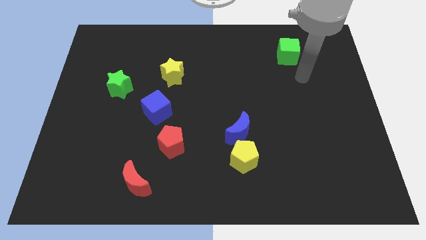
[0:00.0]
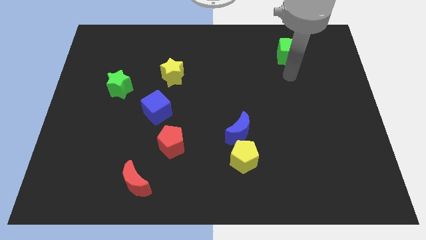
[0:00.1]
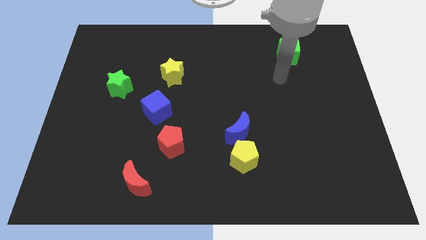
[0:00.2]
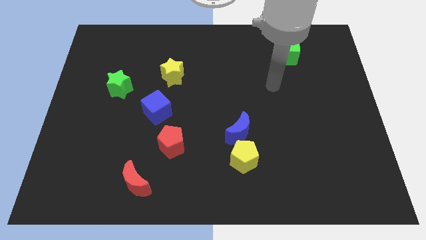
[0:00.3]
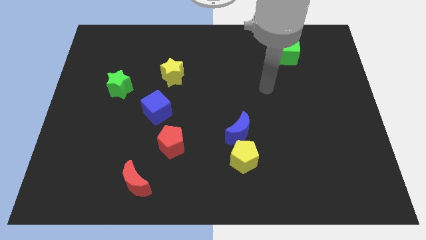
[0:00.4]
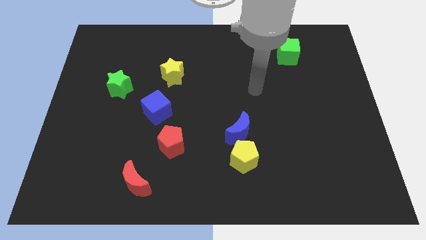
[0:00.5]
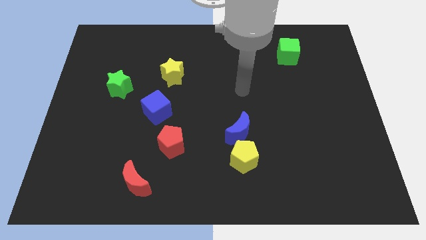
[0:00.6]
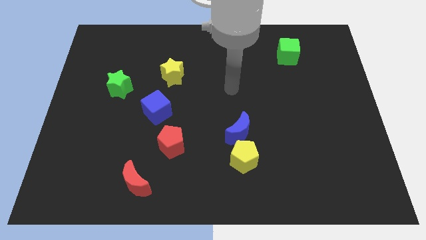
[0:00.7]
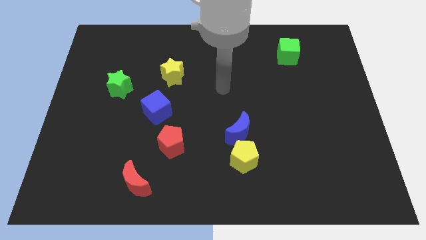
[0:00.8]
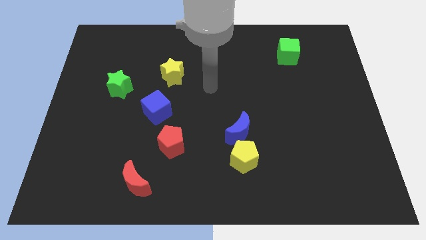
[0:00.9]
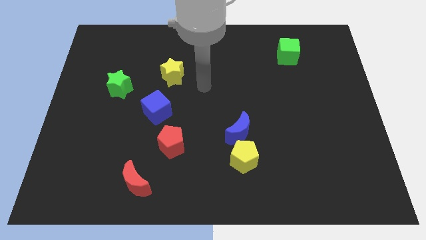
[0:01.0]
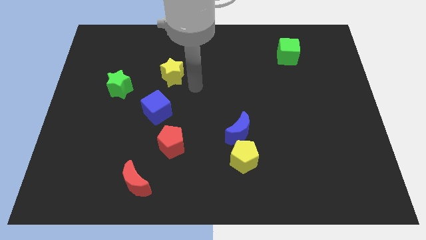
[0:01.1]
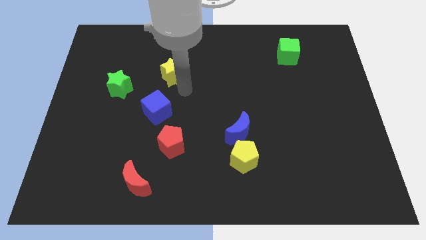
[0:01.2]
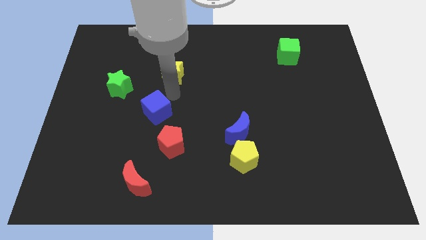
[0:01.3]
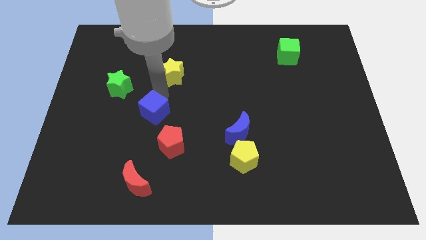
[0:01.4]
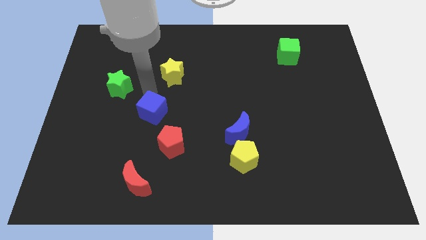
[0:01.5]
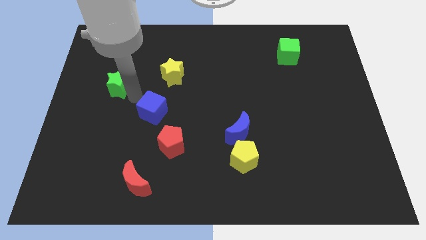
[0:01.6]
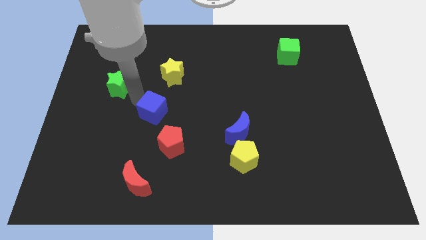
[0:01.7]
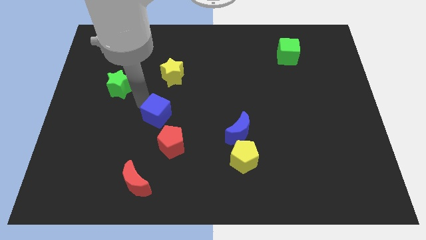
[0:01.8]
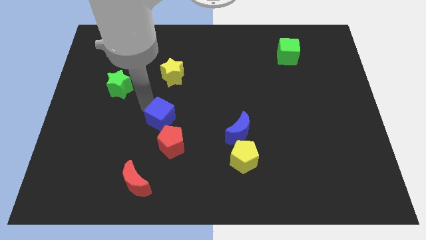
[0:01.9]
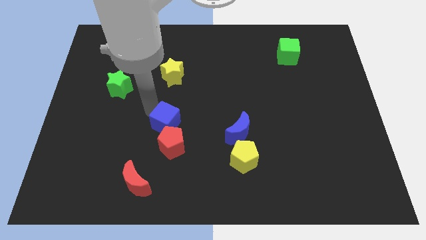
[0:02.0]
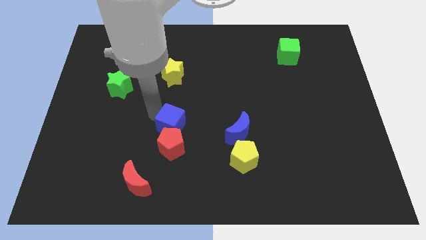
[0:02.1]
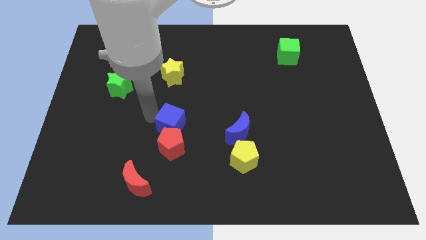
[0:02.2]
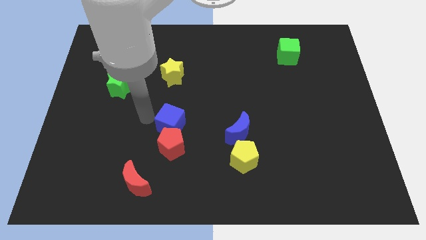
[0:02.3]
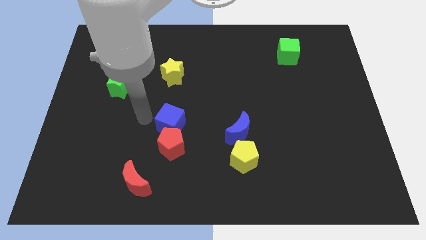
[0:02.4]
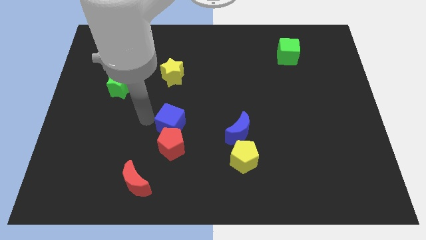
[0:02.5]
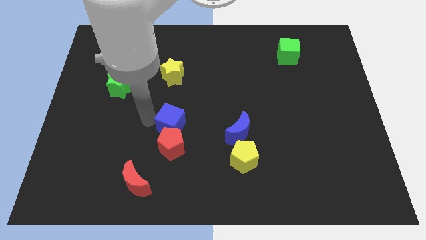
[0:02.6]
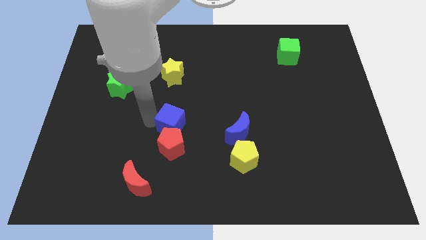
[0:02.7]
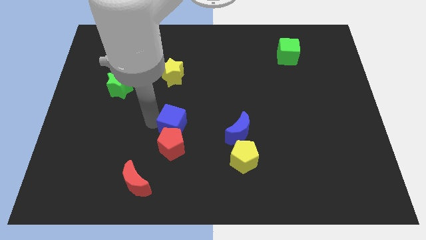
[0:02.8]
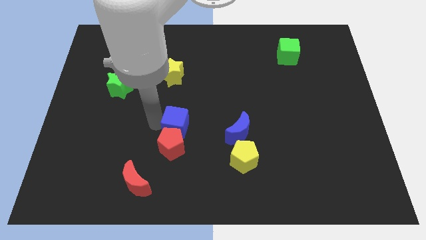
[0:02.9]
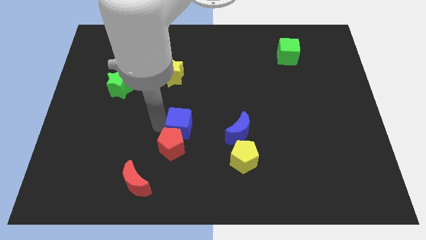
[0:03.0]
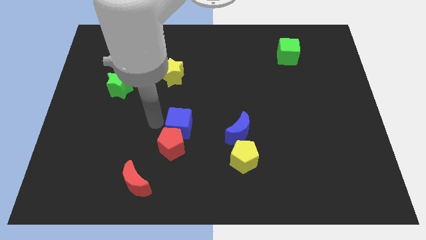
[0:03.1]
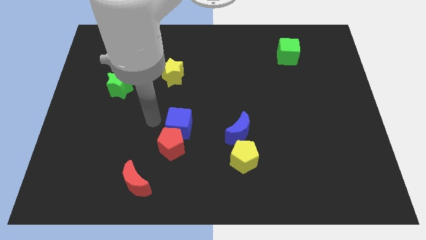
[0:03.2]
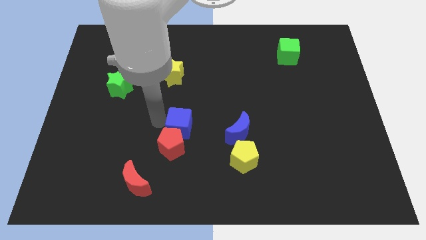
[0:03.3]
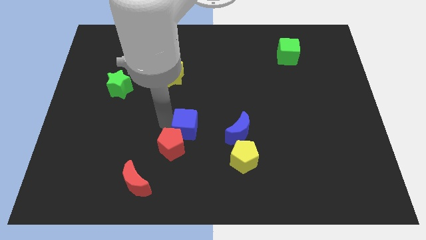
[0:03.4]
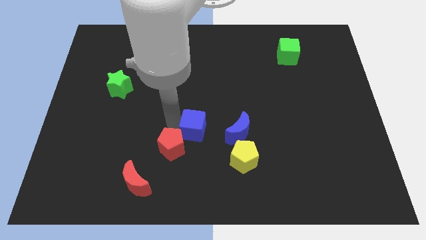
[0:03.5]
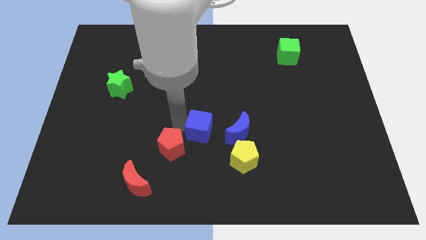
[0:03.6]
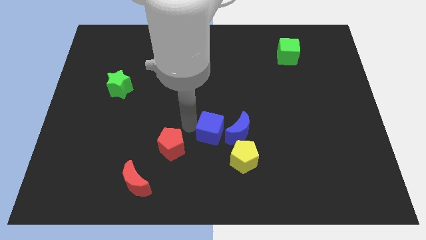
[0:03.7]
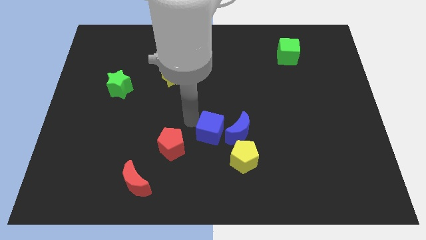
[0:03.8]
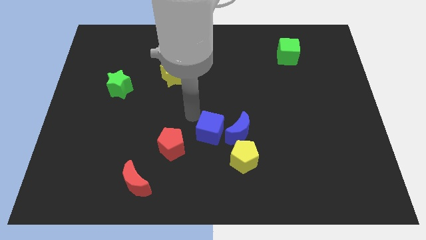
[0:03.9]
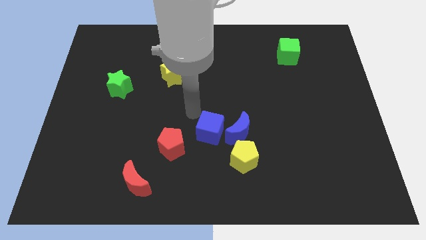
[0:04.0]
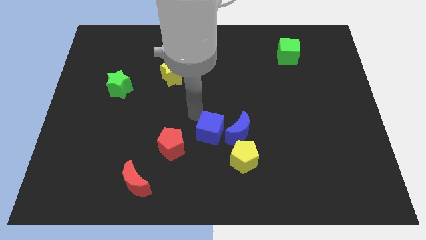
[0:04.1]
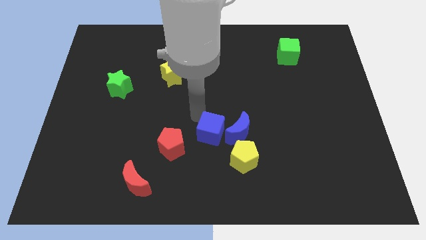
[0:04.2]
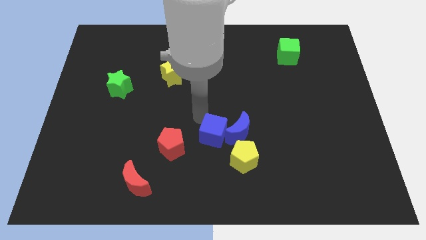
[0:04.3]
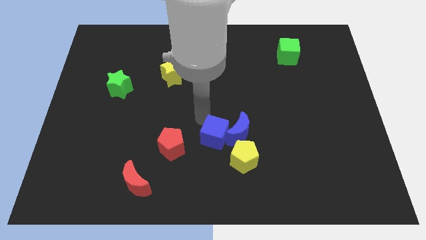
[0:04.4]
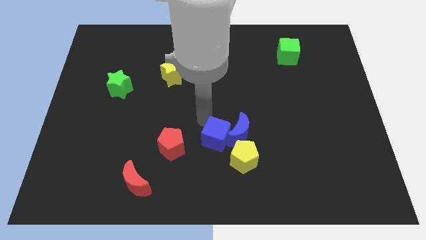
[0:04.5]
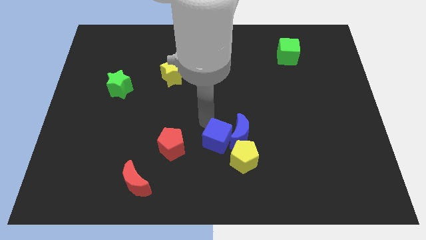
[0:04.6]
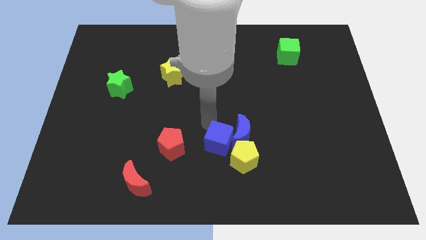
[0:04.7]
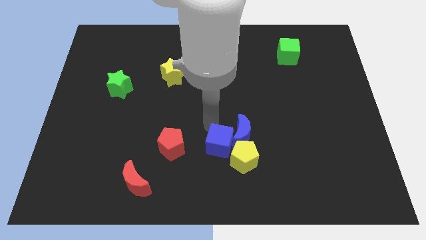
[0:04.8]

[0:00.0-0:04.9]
push the blue cube close to the yellow pentagon

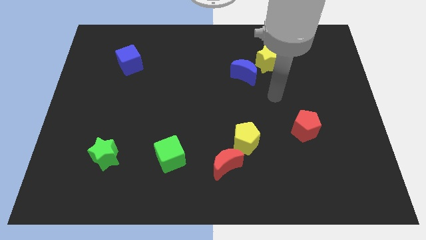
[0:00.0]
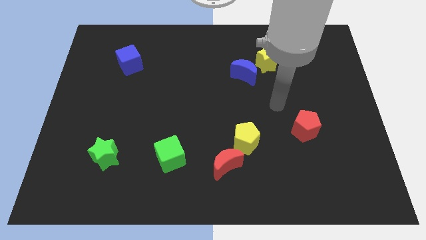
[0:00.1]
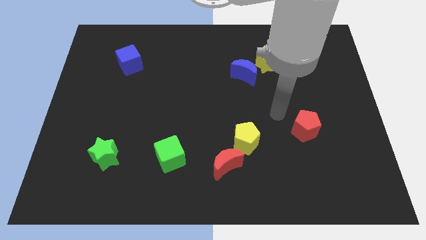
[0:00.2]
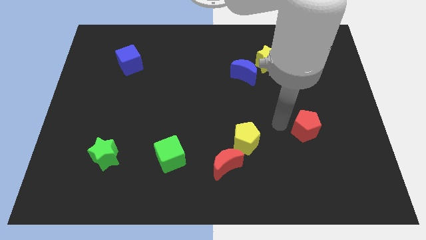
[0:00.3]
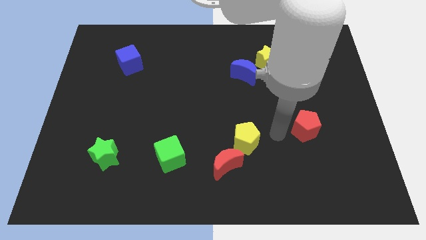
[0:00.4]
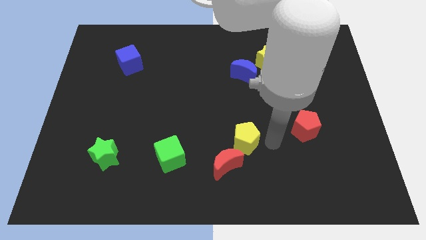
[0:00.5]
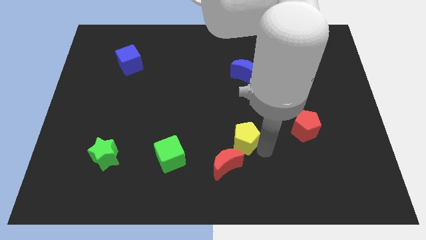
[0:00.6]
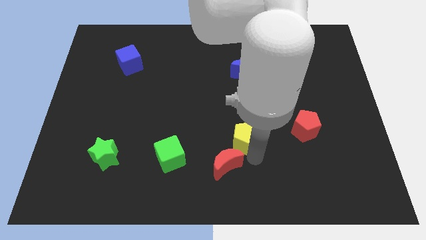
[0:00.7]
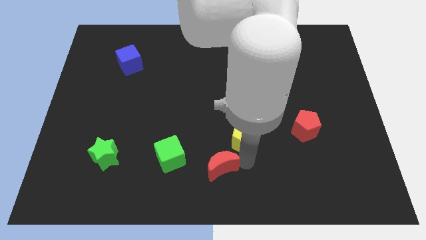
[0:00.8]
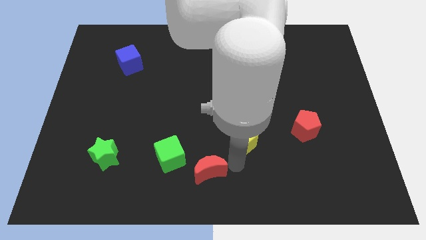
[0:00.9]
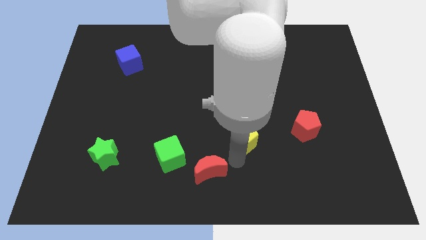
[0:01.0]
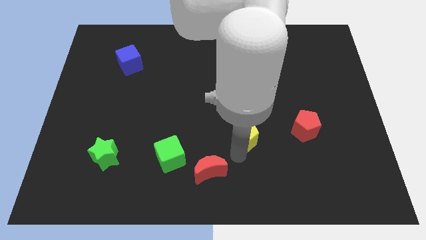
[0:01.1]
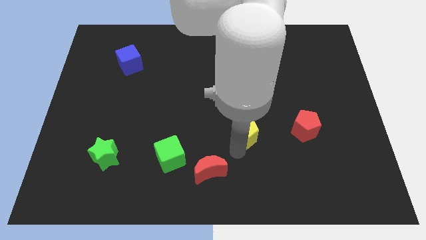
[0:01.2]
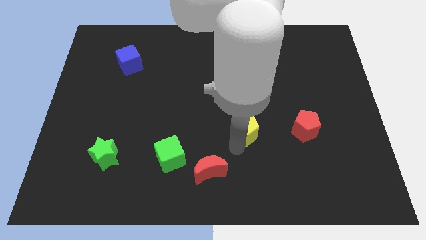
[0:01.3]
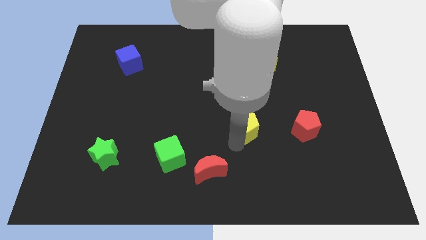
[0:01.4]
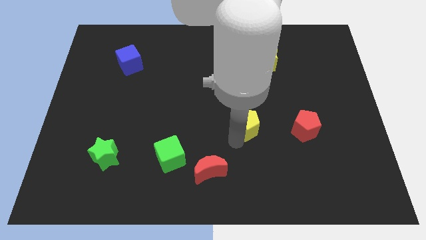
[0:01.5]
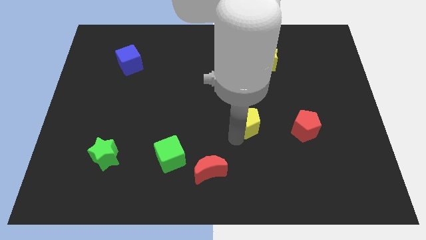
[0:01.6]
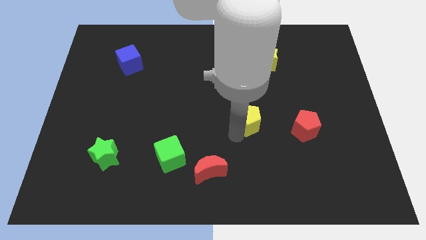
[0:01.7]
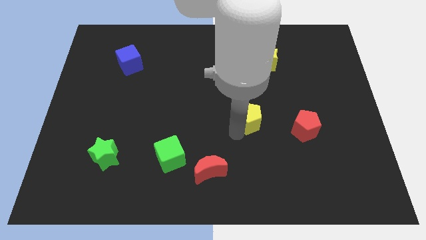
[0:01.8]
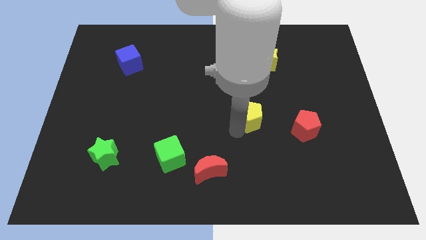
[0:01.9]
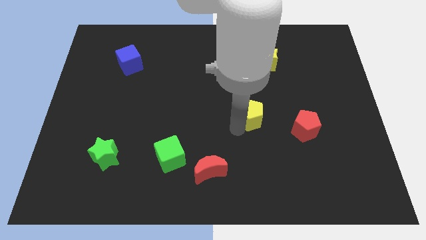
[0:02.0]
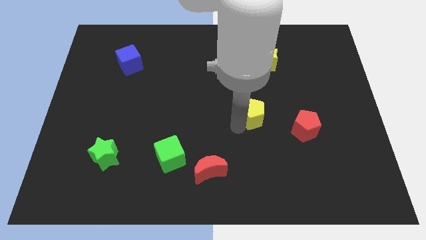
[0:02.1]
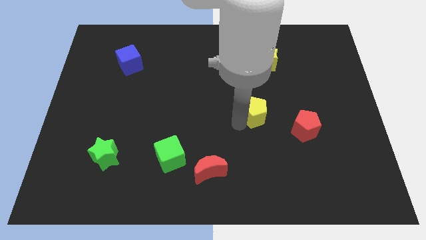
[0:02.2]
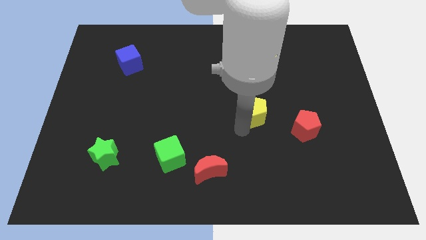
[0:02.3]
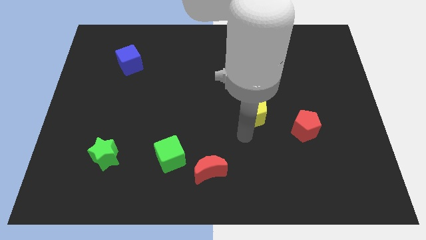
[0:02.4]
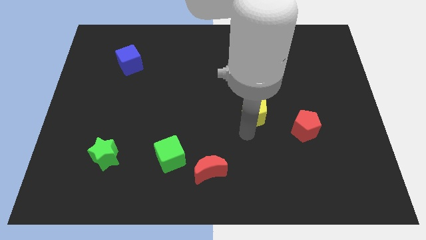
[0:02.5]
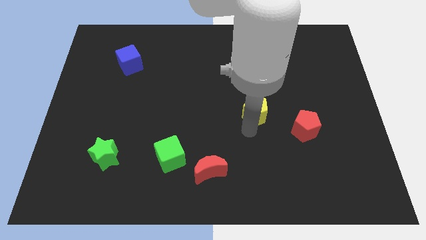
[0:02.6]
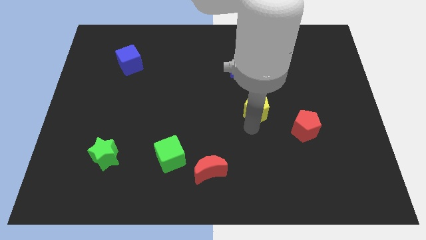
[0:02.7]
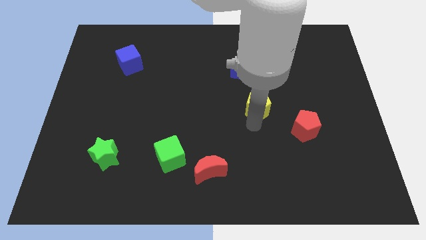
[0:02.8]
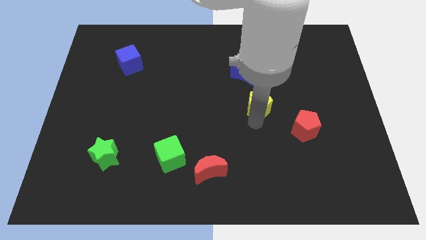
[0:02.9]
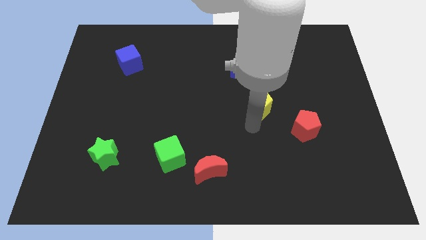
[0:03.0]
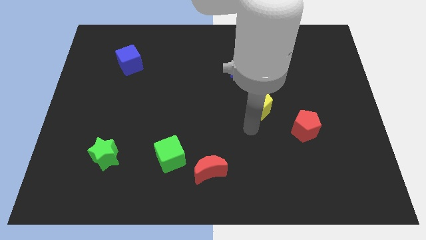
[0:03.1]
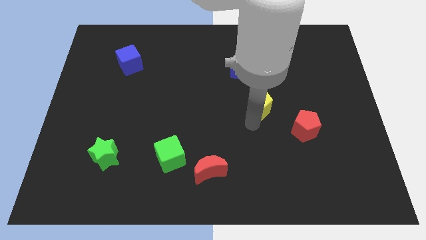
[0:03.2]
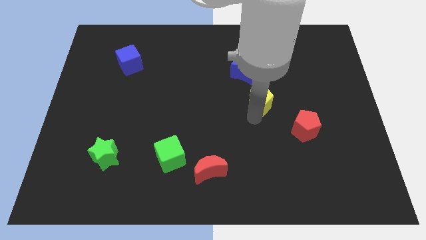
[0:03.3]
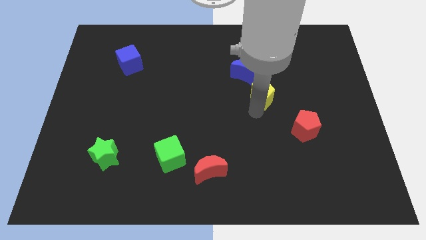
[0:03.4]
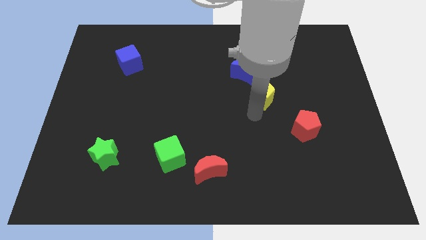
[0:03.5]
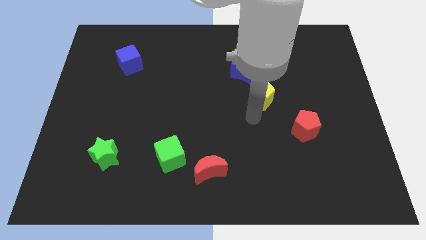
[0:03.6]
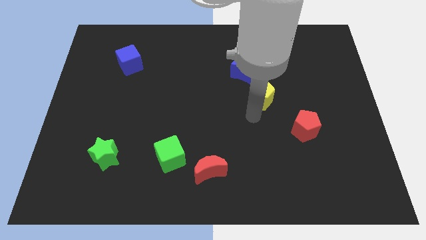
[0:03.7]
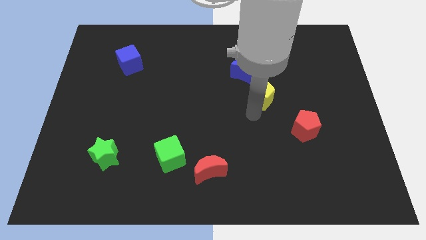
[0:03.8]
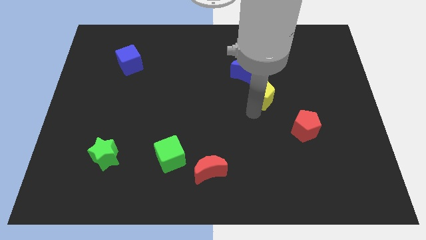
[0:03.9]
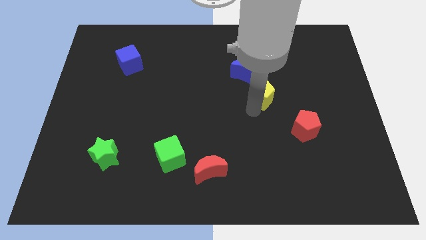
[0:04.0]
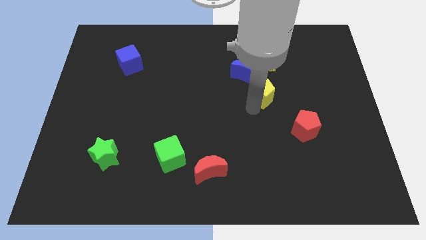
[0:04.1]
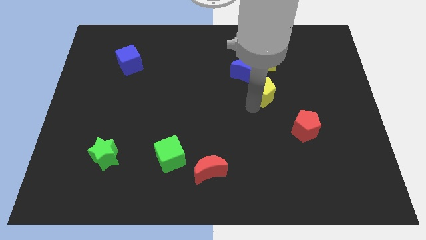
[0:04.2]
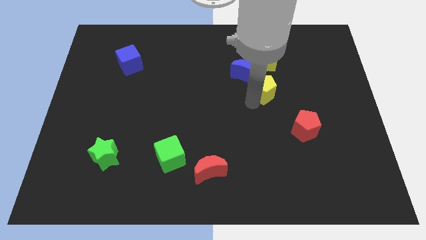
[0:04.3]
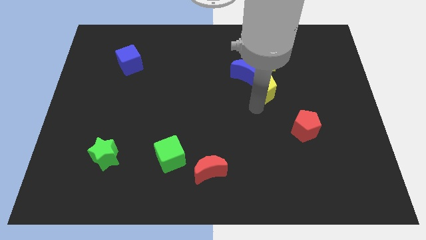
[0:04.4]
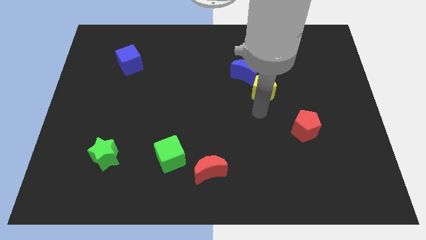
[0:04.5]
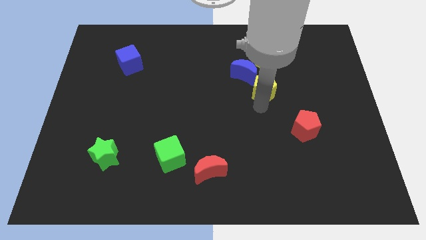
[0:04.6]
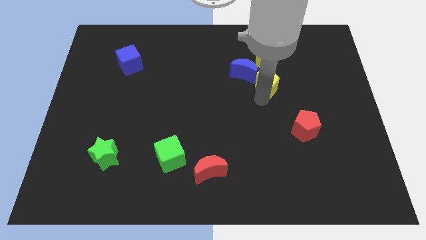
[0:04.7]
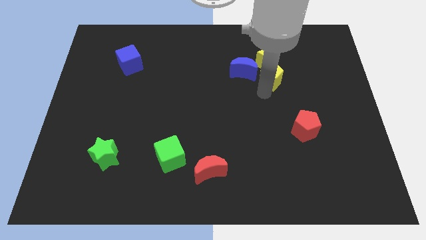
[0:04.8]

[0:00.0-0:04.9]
move the yellow pentagon towards the yellow star
